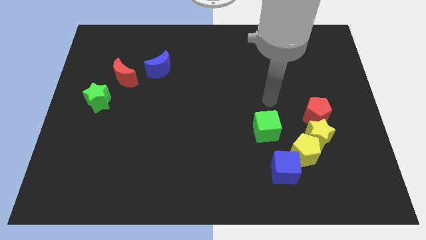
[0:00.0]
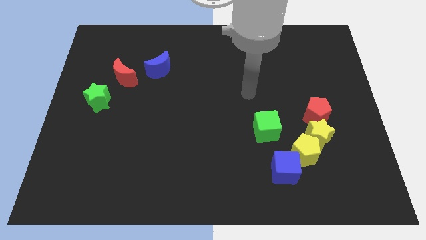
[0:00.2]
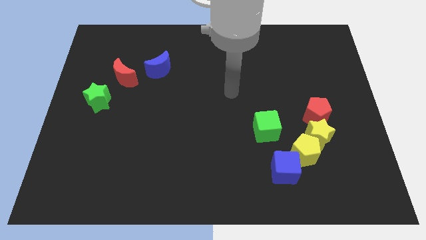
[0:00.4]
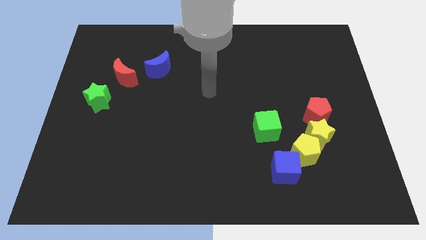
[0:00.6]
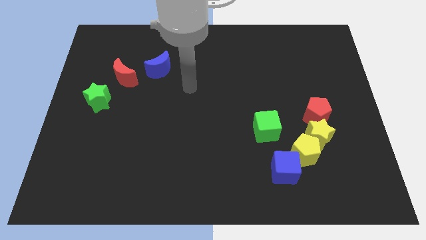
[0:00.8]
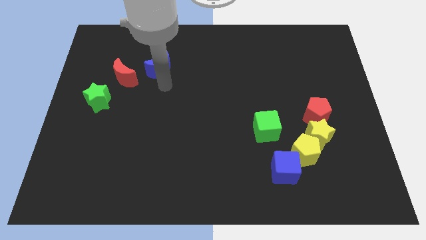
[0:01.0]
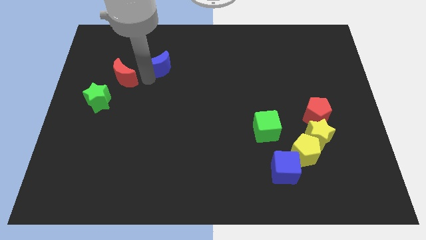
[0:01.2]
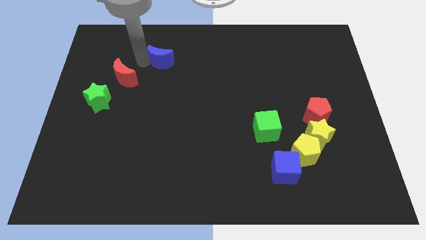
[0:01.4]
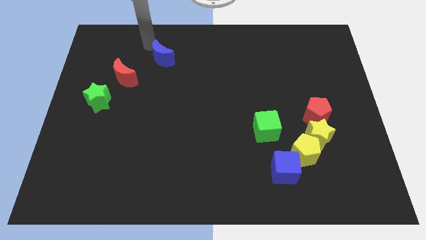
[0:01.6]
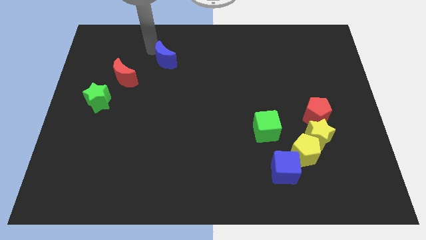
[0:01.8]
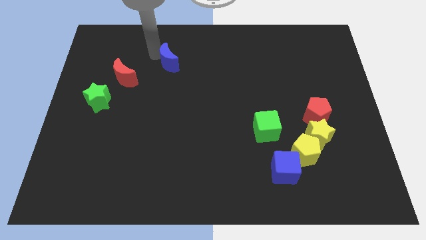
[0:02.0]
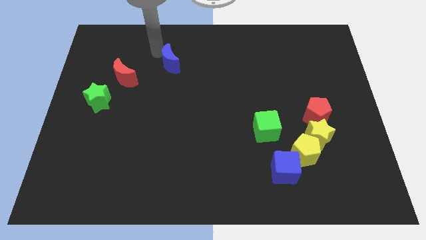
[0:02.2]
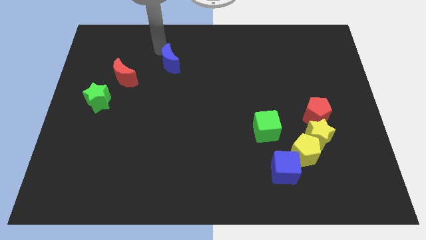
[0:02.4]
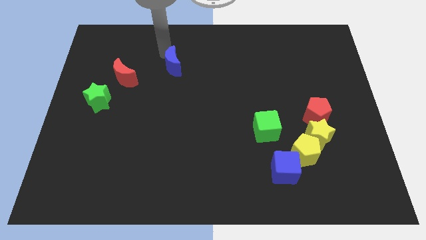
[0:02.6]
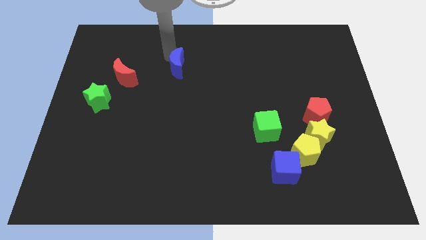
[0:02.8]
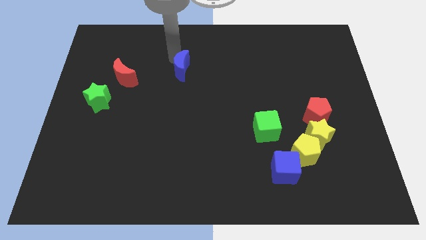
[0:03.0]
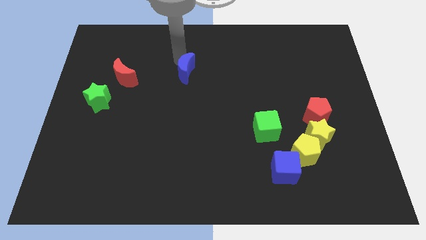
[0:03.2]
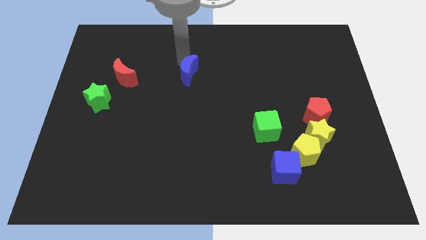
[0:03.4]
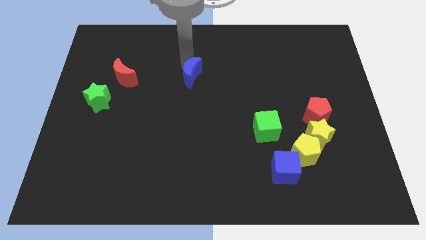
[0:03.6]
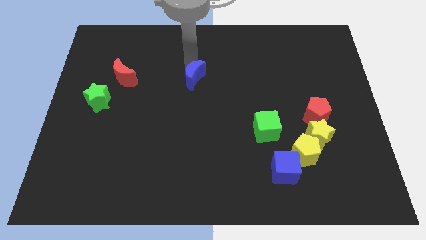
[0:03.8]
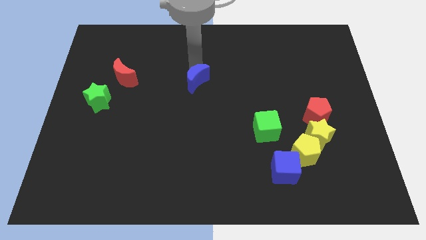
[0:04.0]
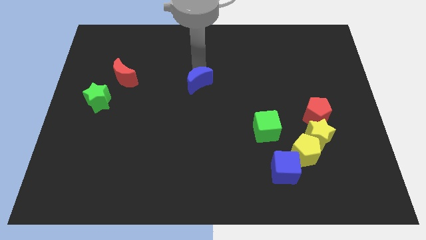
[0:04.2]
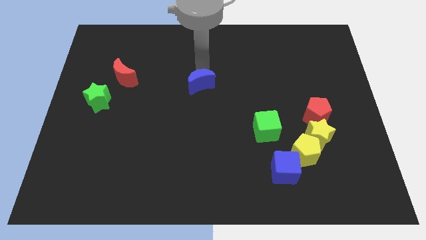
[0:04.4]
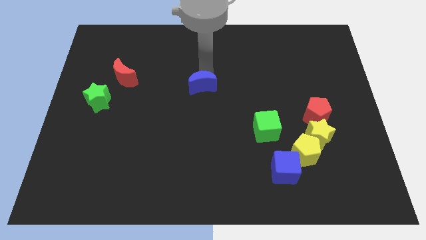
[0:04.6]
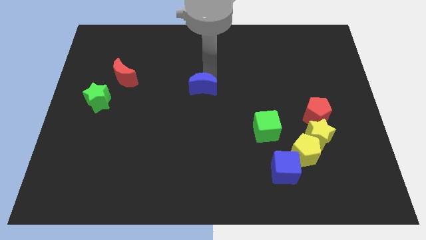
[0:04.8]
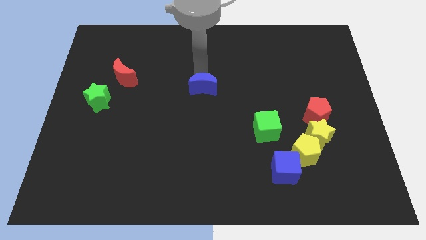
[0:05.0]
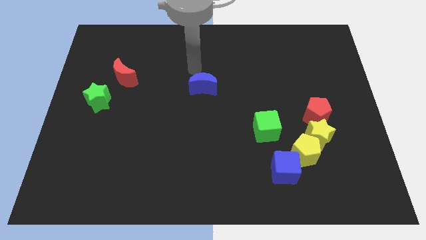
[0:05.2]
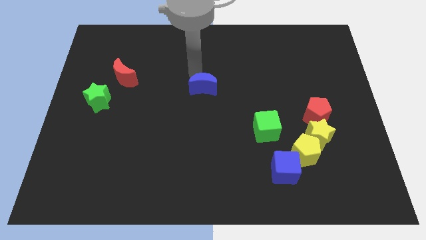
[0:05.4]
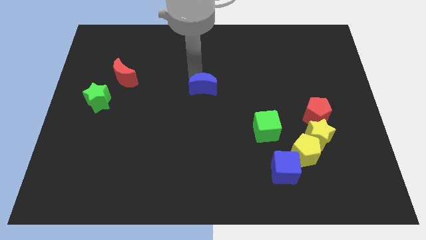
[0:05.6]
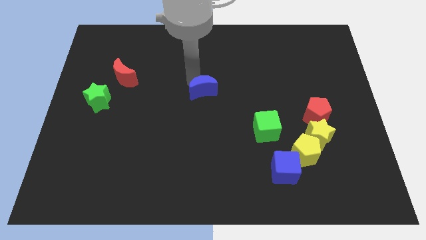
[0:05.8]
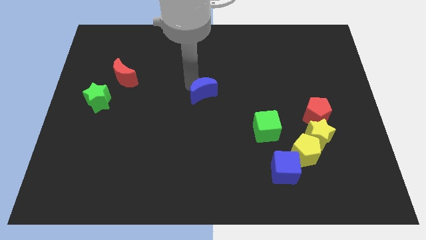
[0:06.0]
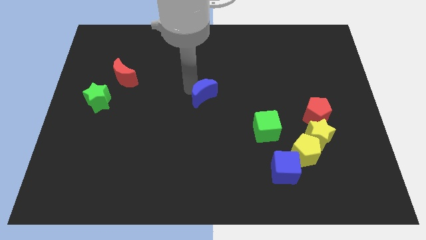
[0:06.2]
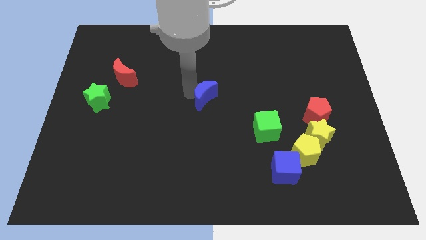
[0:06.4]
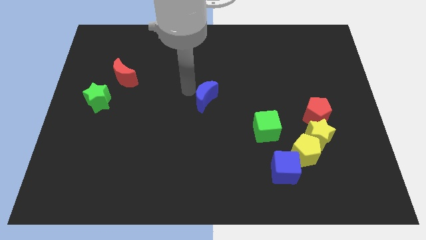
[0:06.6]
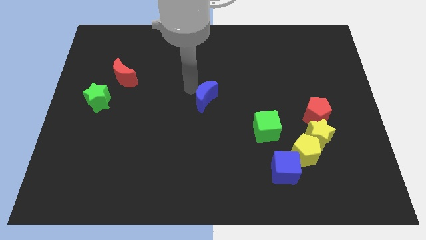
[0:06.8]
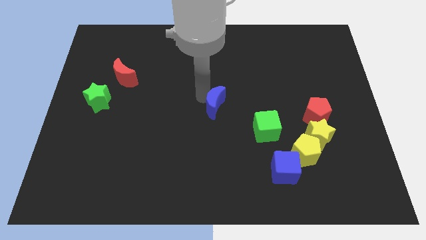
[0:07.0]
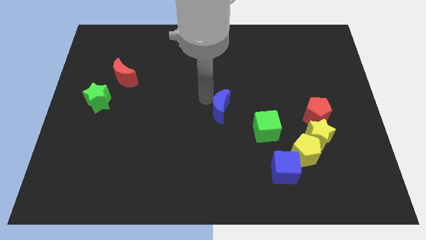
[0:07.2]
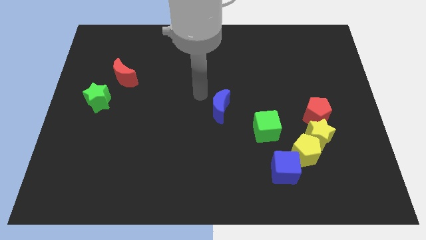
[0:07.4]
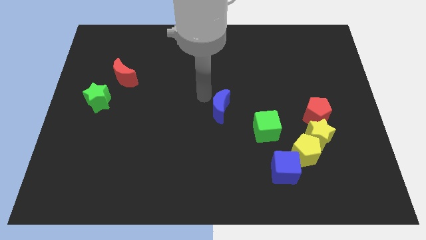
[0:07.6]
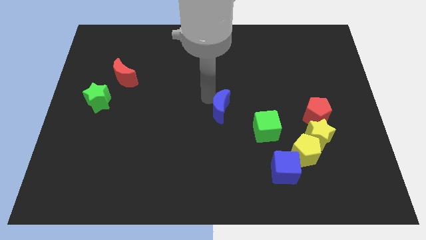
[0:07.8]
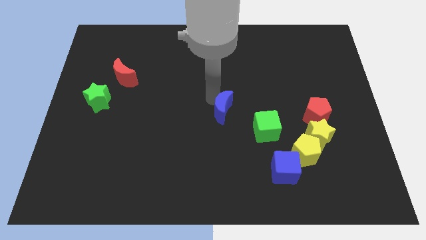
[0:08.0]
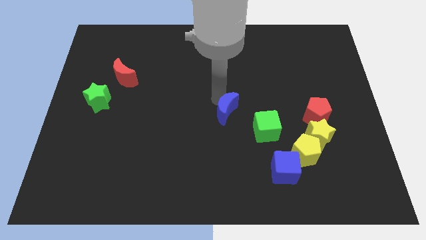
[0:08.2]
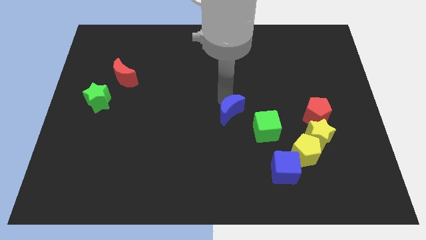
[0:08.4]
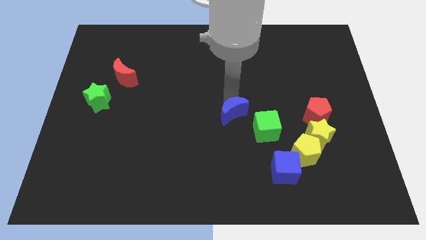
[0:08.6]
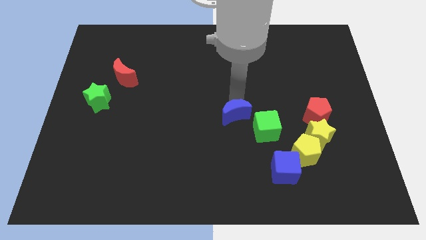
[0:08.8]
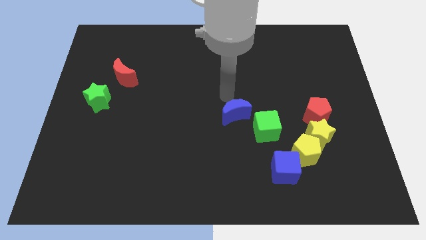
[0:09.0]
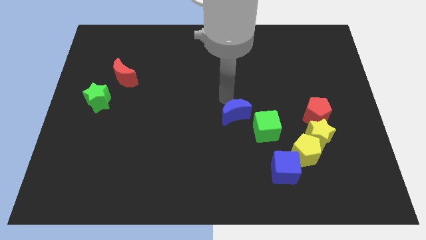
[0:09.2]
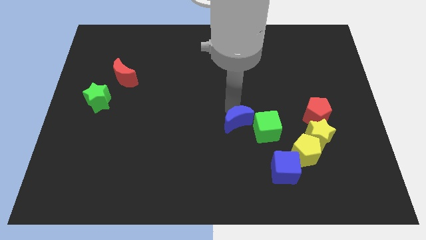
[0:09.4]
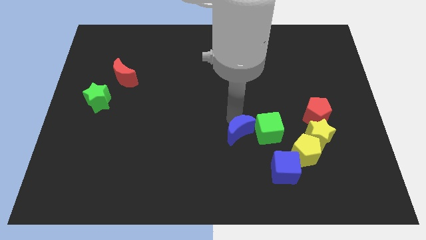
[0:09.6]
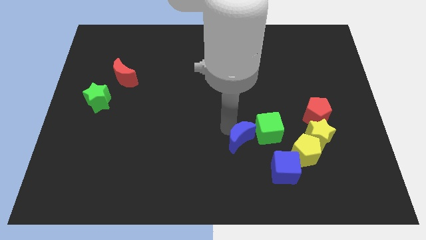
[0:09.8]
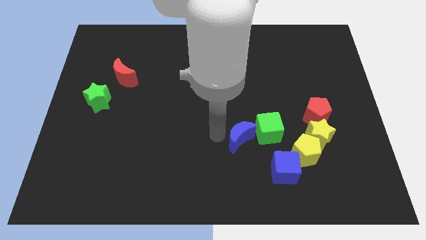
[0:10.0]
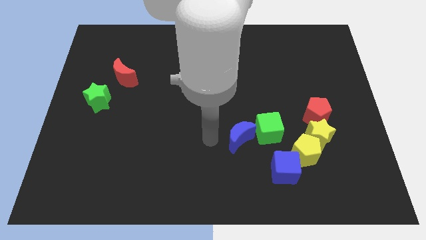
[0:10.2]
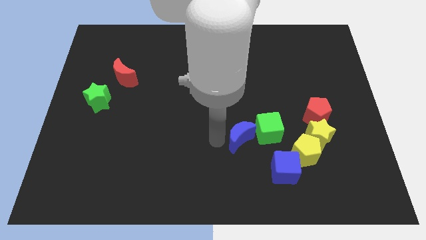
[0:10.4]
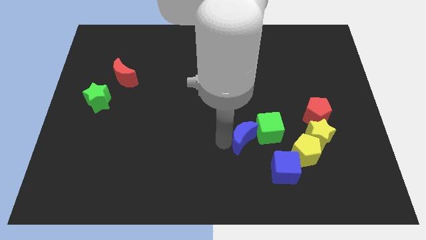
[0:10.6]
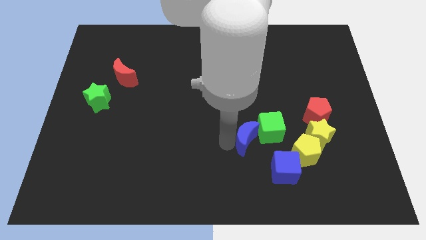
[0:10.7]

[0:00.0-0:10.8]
slide the blue moon just left of the yellow star

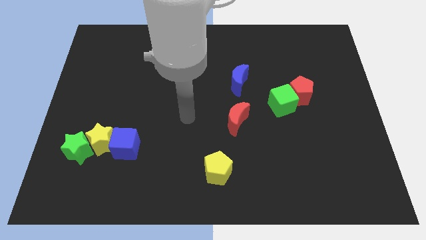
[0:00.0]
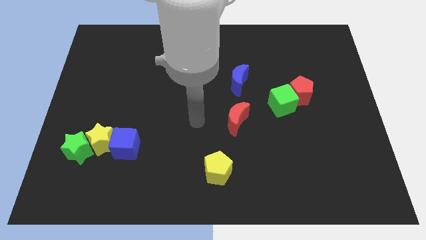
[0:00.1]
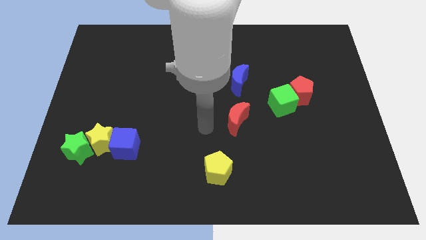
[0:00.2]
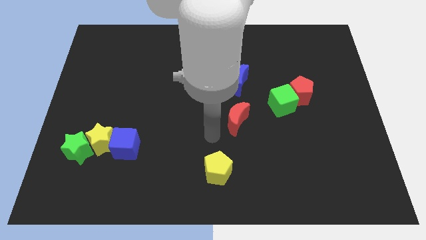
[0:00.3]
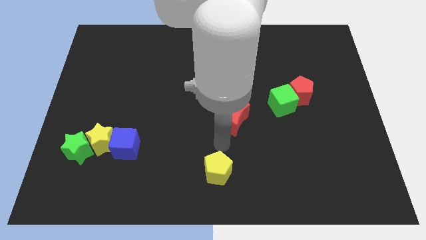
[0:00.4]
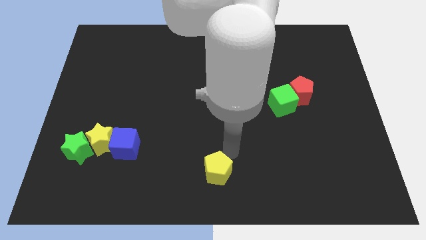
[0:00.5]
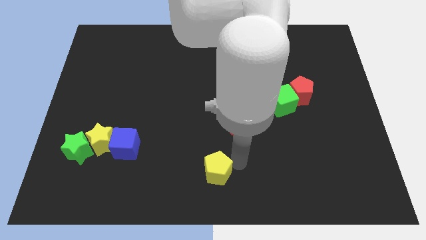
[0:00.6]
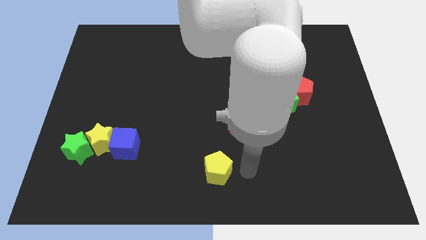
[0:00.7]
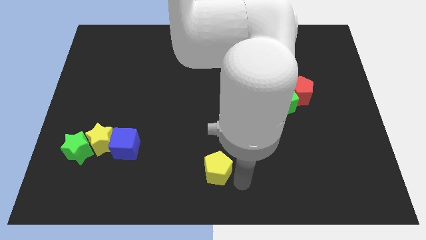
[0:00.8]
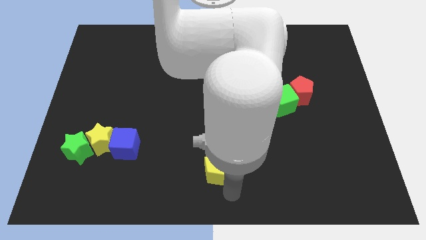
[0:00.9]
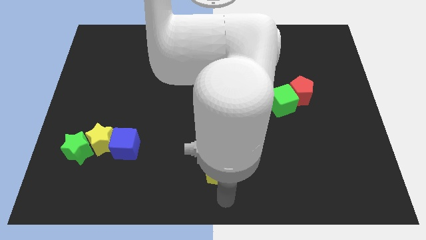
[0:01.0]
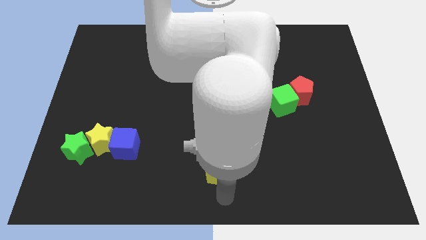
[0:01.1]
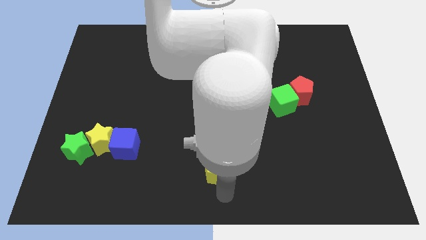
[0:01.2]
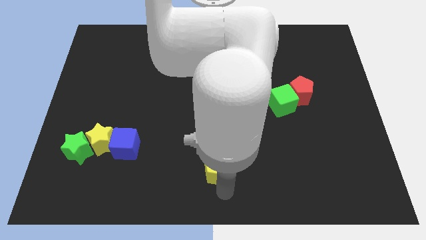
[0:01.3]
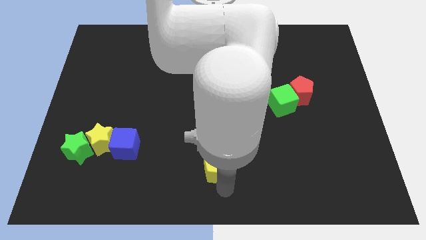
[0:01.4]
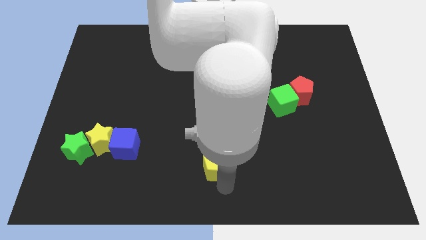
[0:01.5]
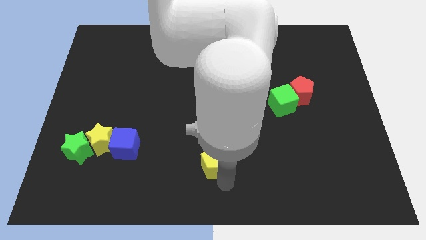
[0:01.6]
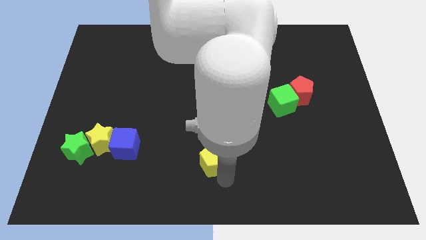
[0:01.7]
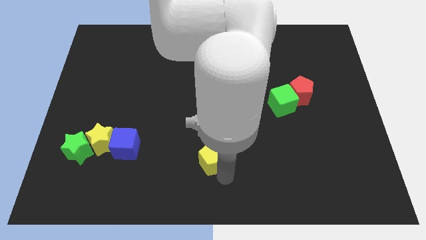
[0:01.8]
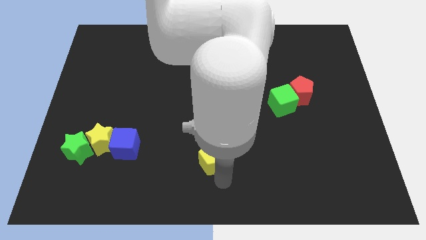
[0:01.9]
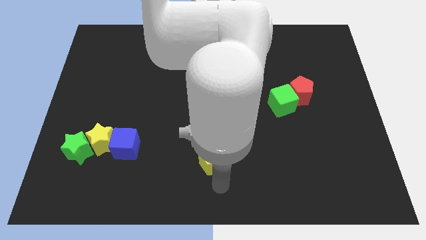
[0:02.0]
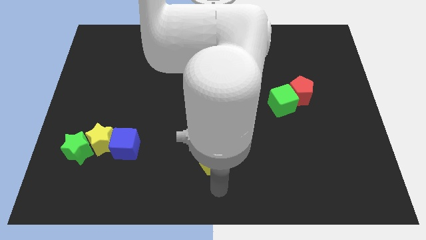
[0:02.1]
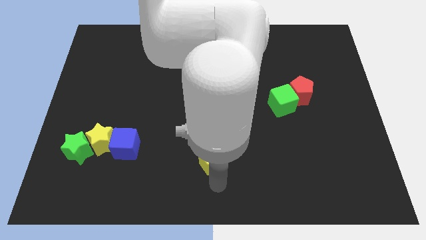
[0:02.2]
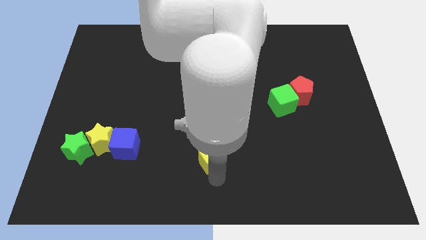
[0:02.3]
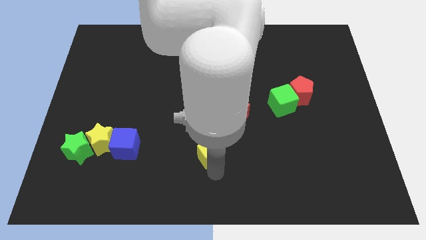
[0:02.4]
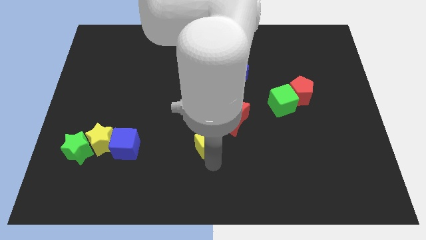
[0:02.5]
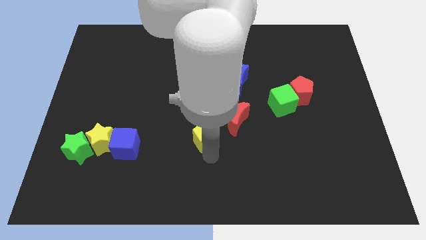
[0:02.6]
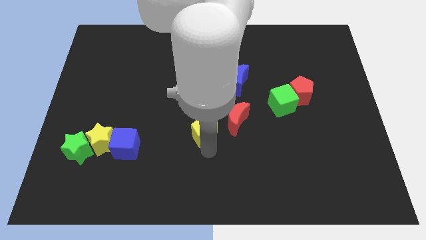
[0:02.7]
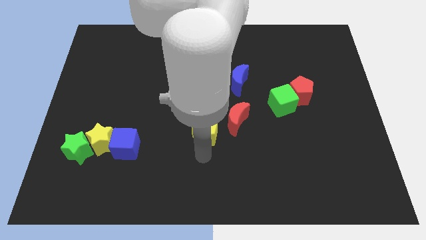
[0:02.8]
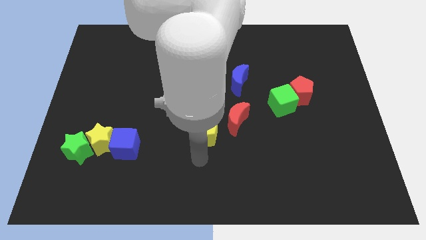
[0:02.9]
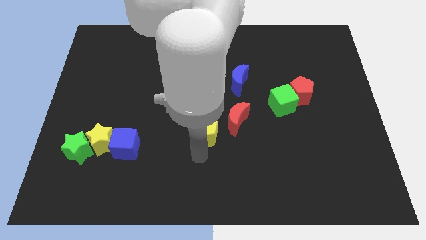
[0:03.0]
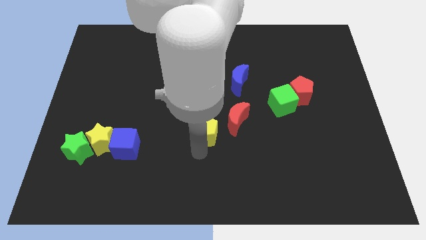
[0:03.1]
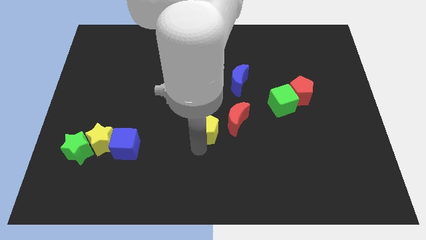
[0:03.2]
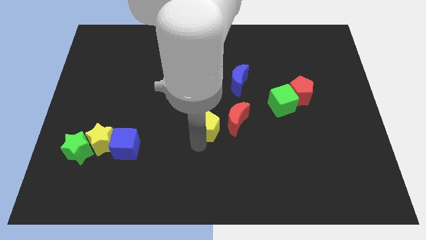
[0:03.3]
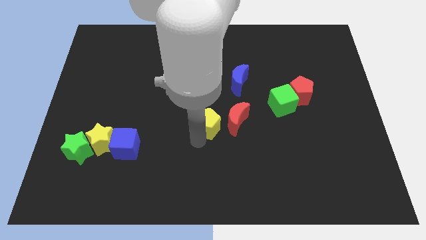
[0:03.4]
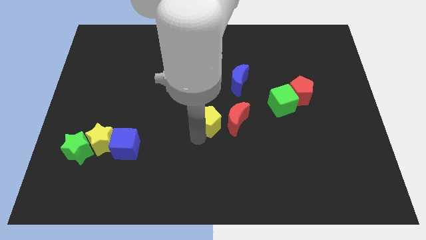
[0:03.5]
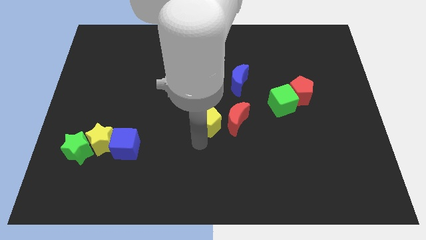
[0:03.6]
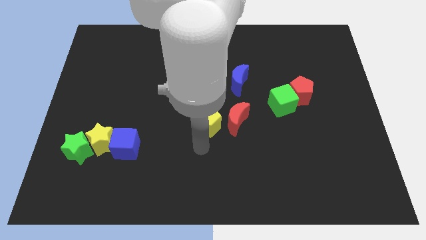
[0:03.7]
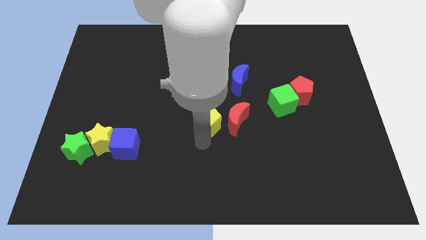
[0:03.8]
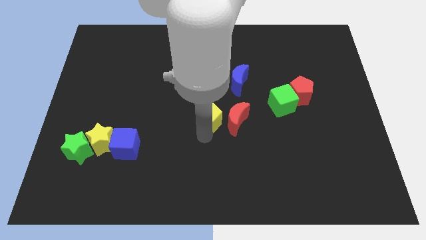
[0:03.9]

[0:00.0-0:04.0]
move the yellow pentagon to the top left of the red moon
